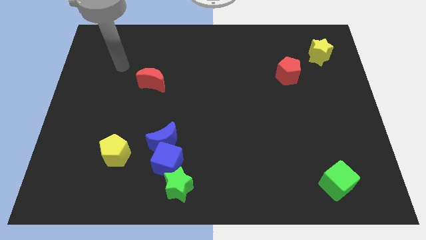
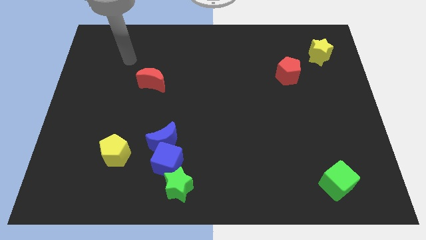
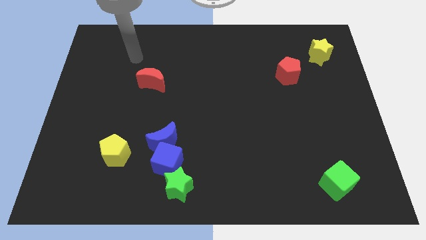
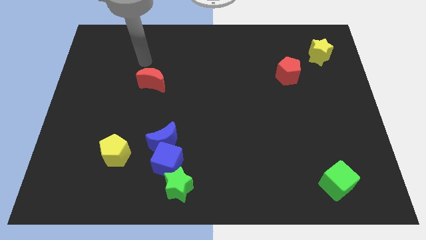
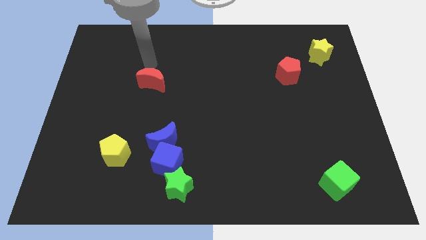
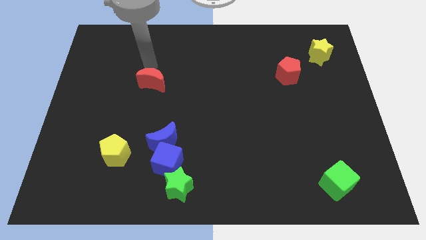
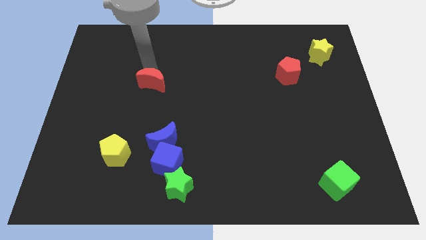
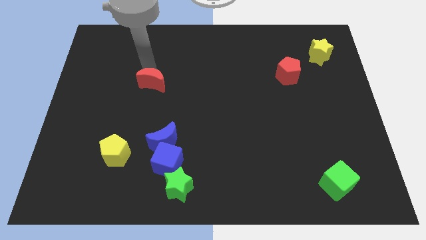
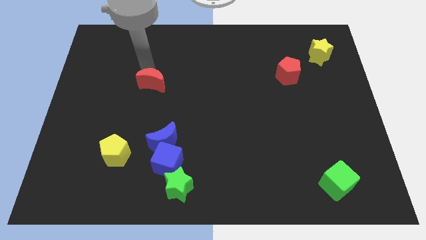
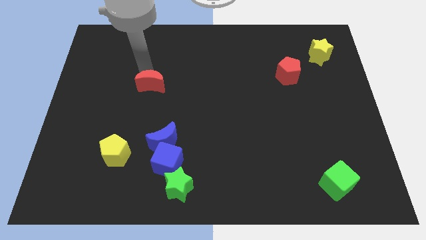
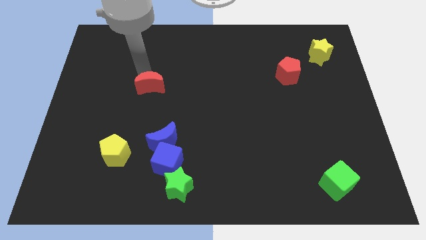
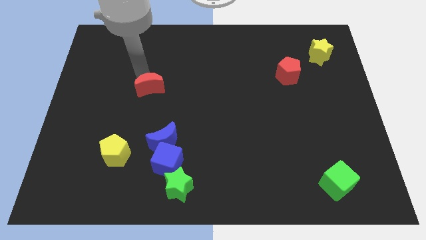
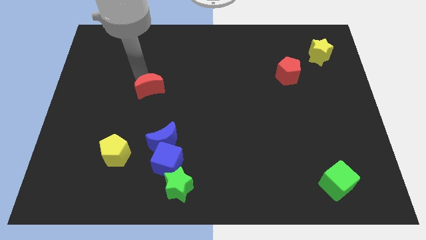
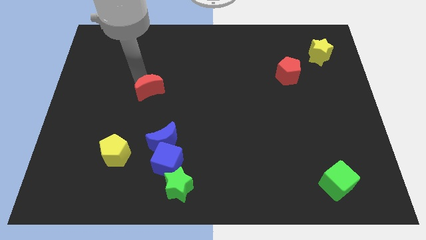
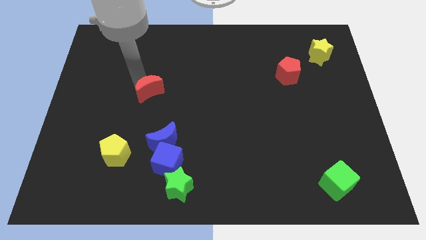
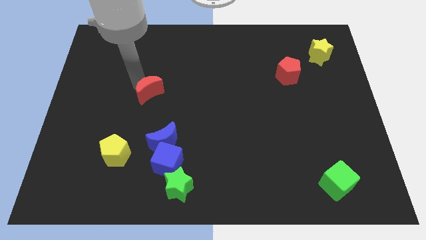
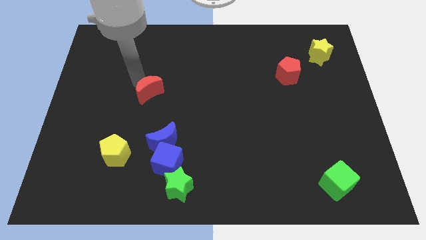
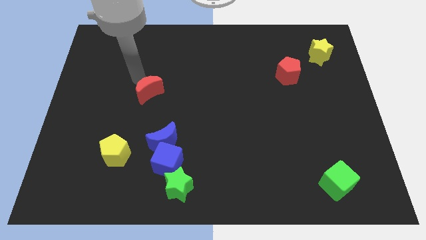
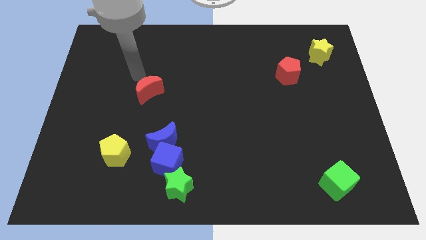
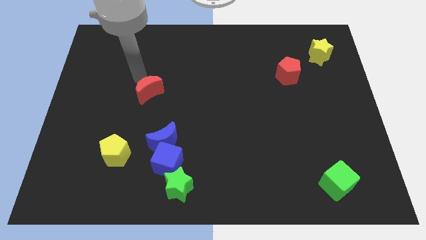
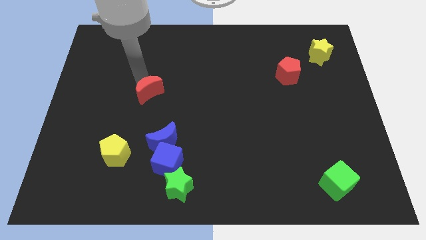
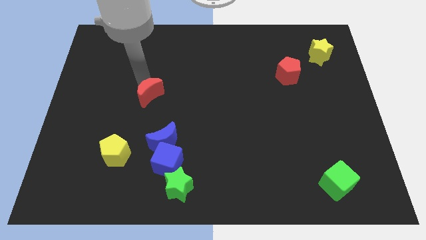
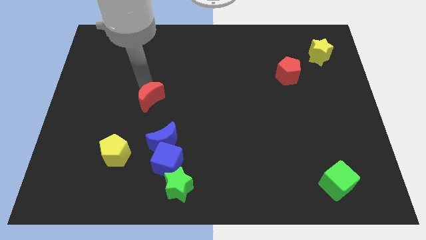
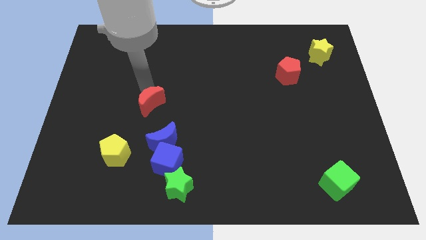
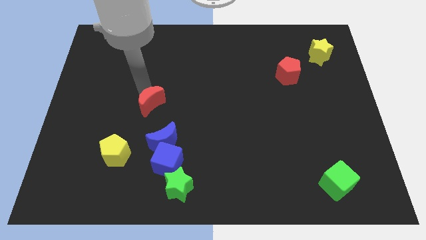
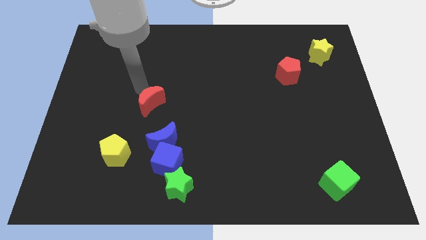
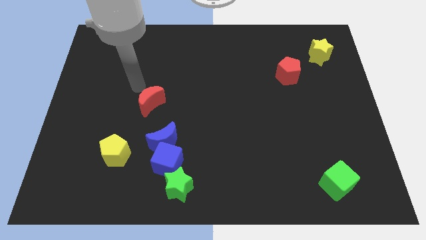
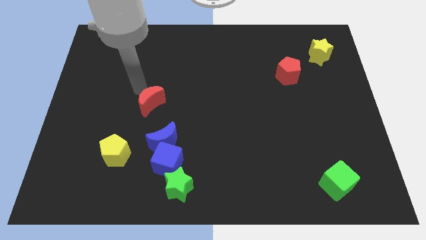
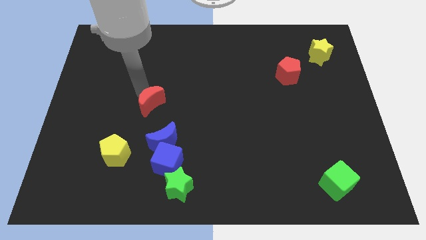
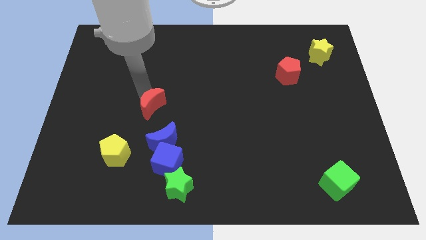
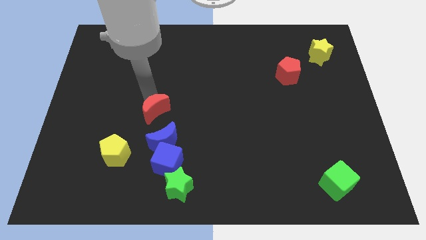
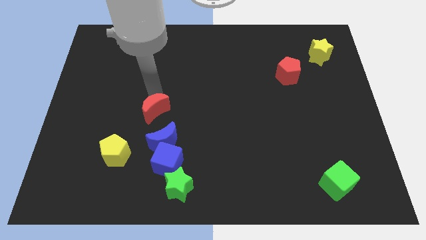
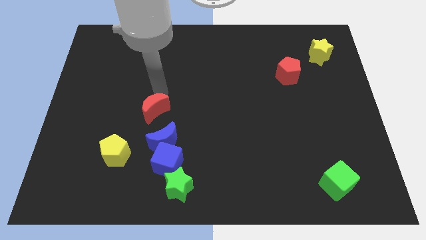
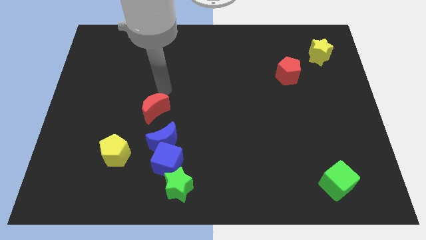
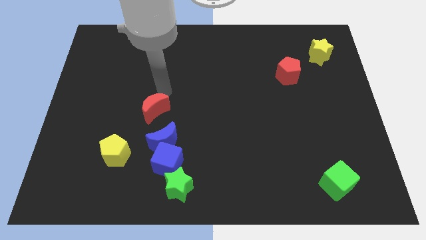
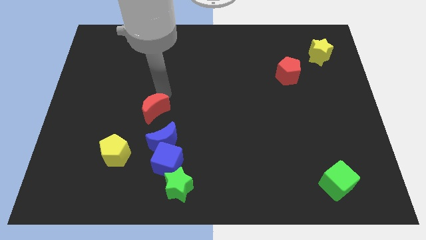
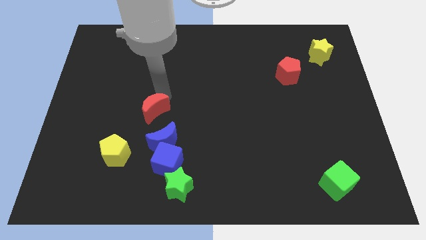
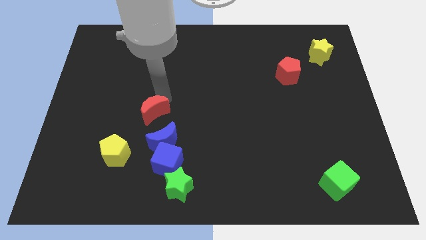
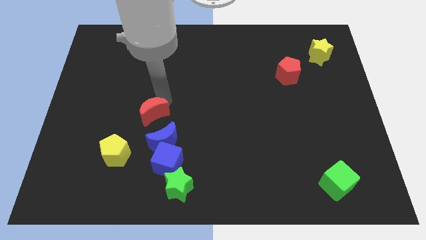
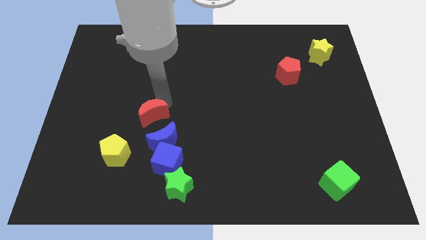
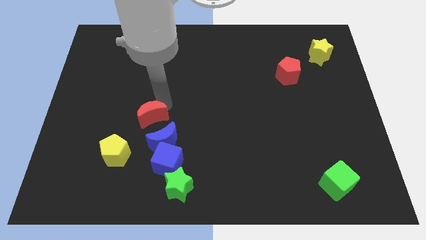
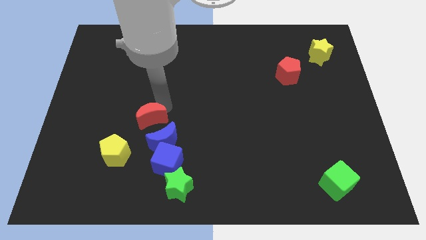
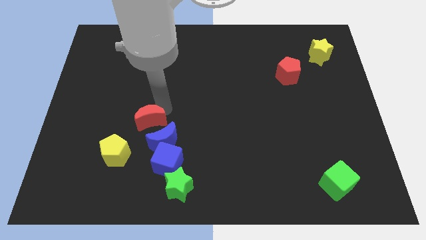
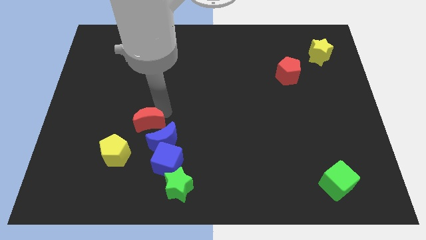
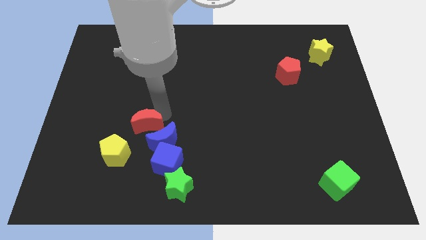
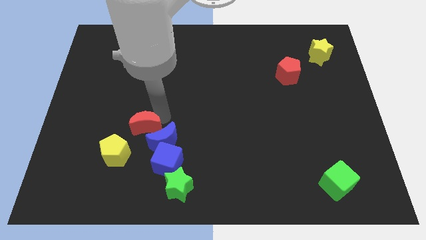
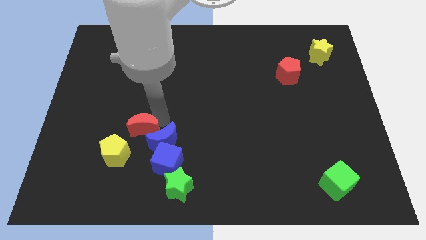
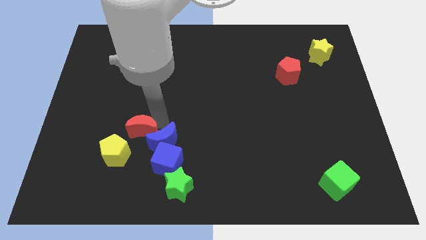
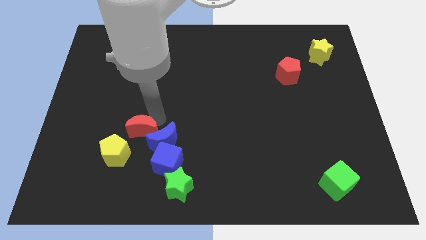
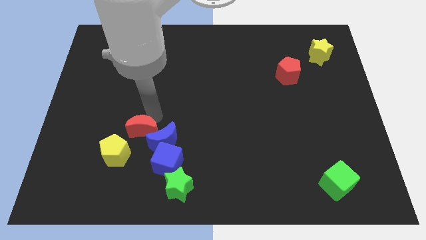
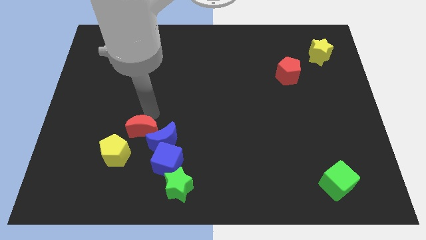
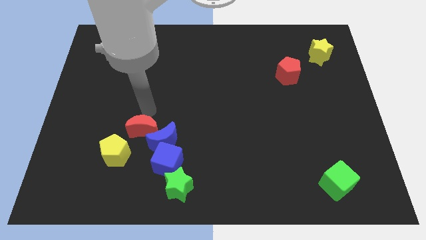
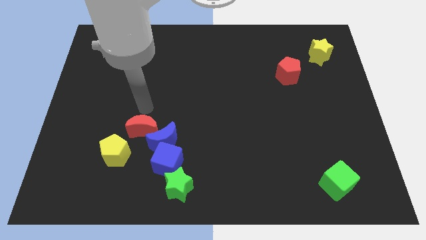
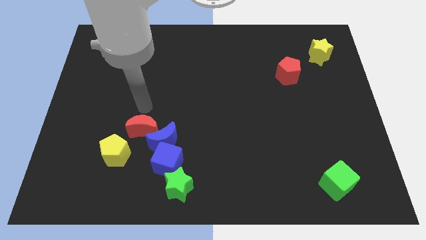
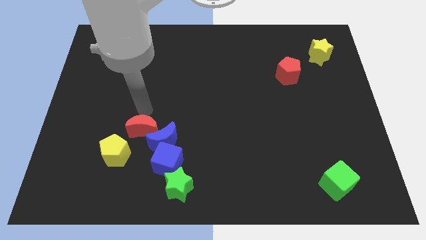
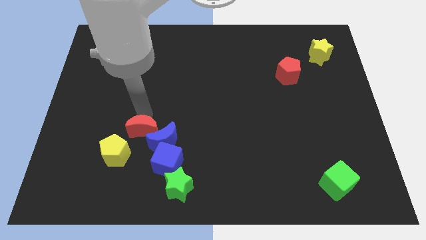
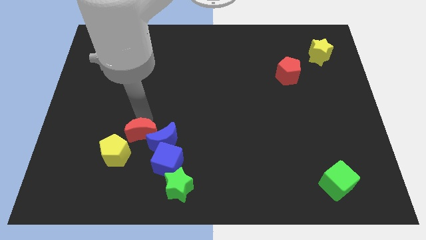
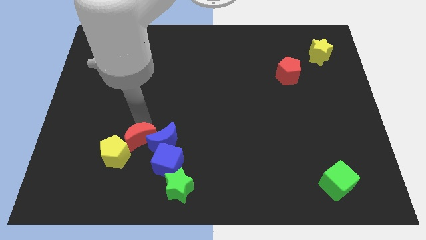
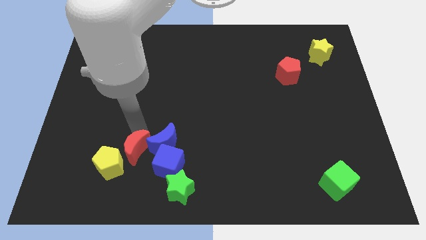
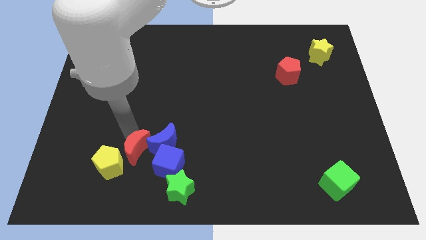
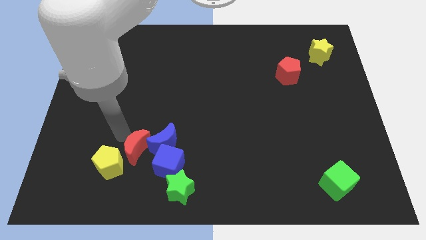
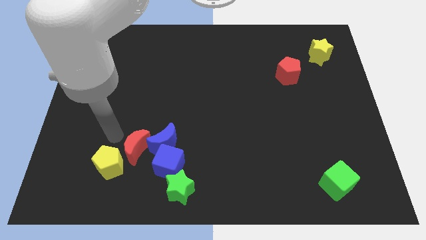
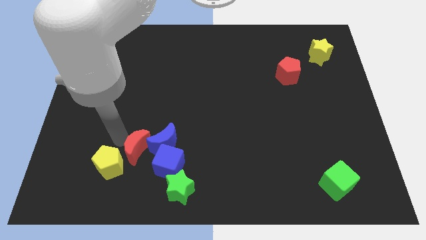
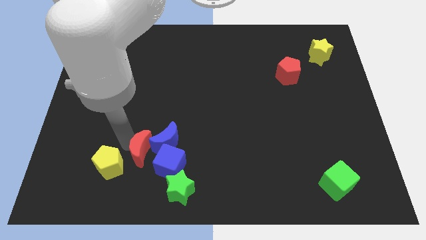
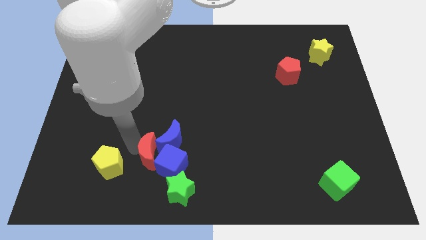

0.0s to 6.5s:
put the red moon close to the blue cube

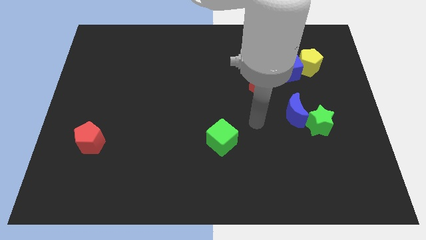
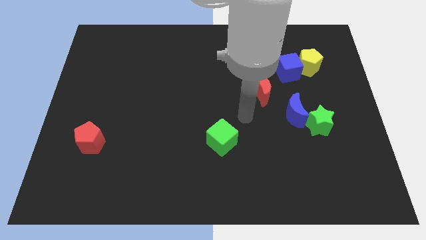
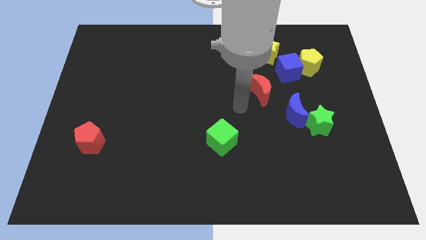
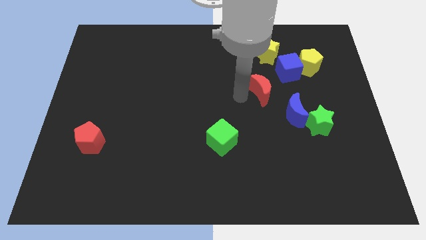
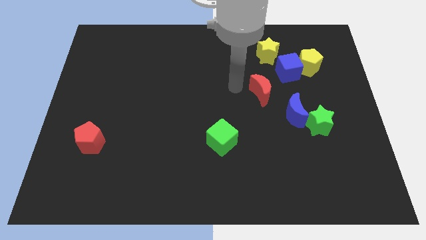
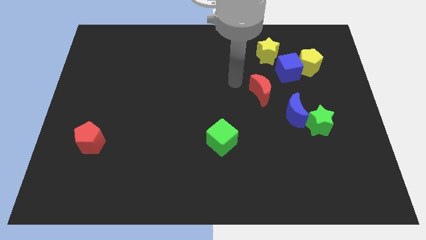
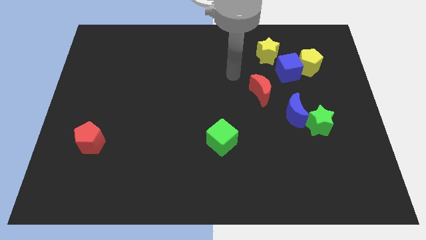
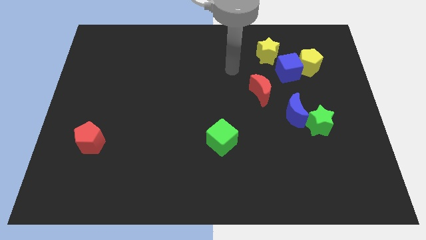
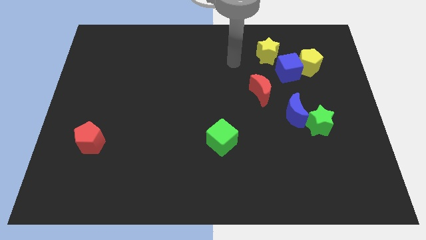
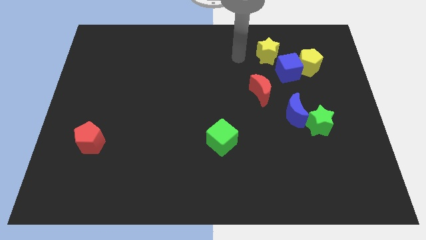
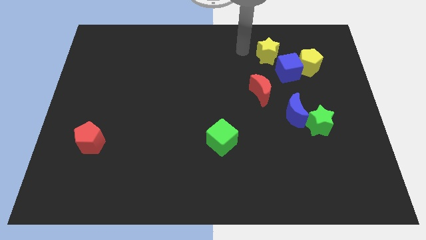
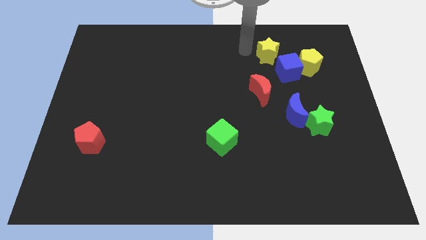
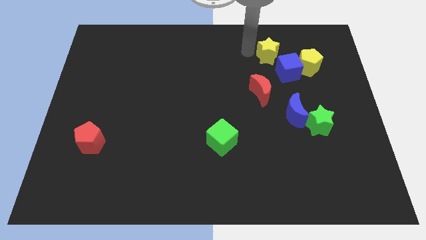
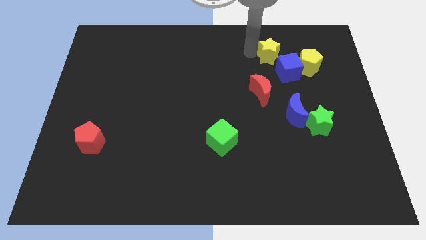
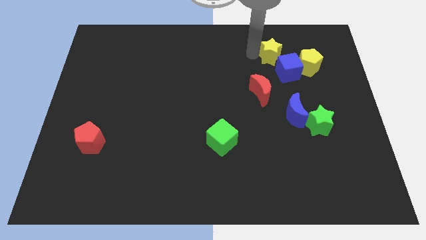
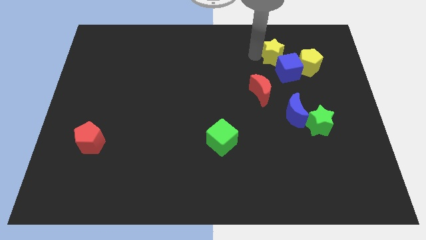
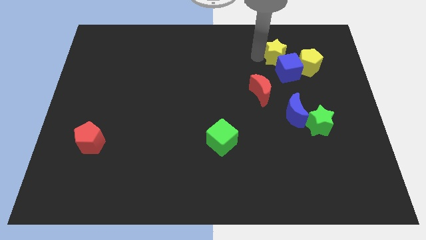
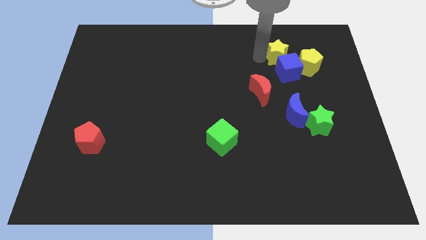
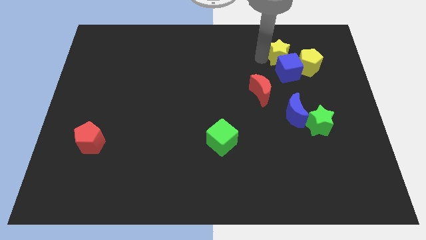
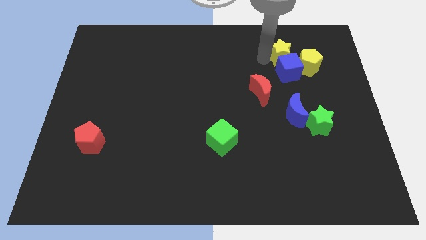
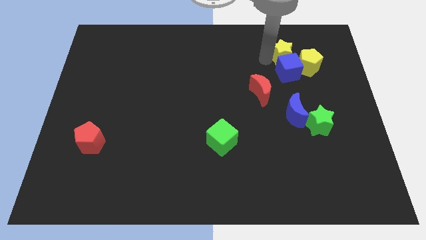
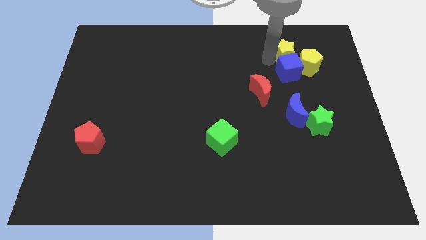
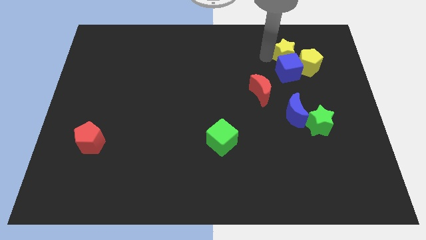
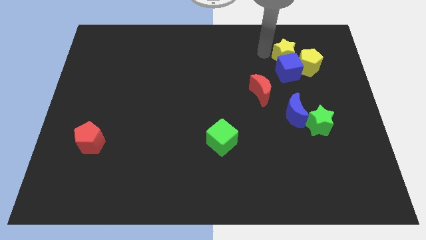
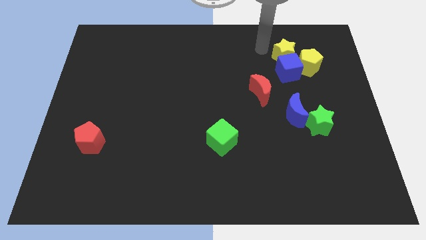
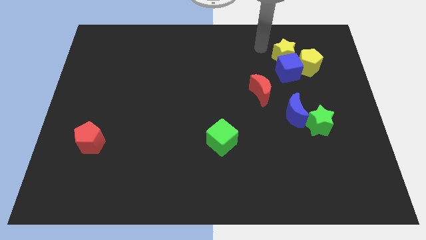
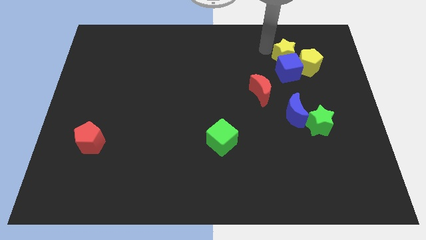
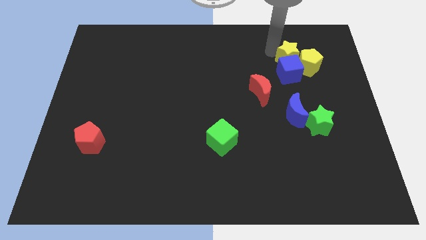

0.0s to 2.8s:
push the yellow star towards the yellow pentagon
